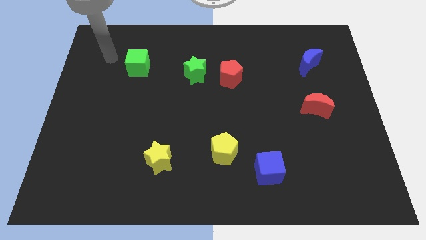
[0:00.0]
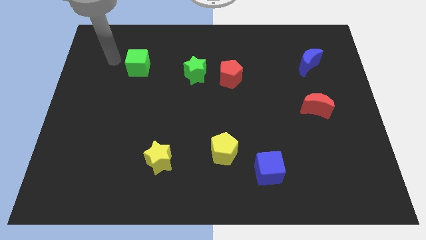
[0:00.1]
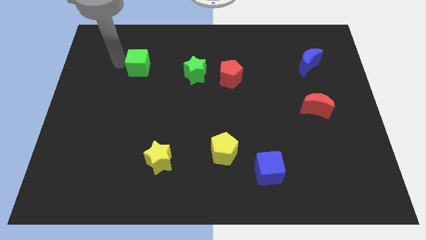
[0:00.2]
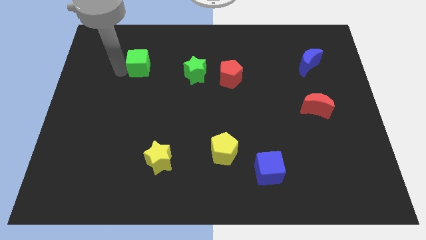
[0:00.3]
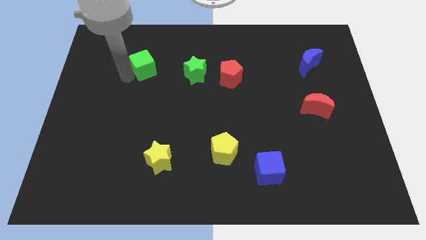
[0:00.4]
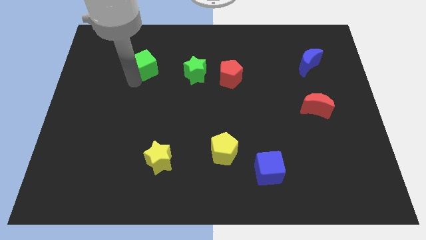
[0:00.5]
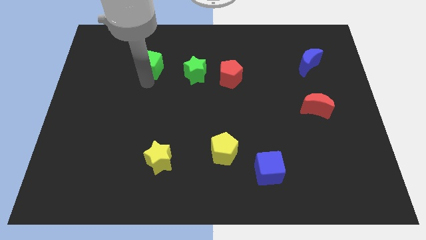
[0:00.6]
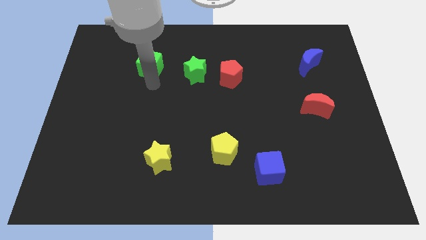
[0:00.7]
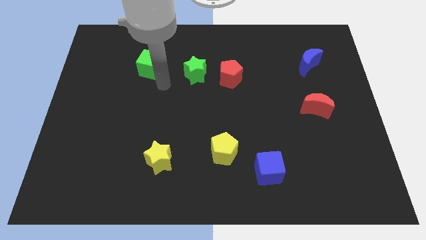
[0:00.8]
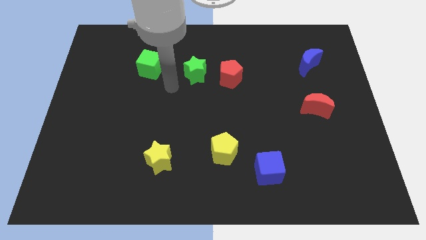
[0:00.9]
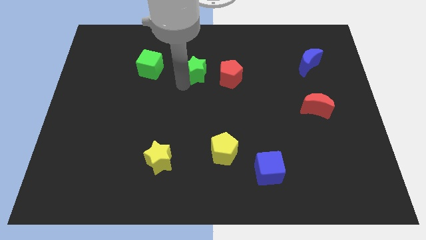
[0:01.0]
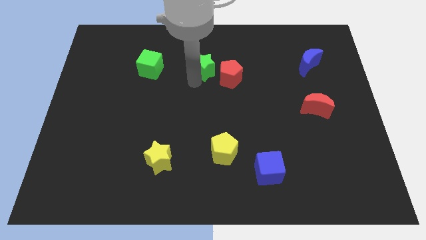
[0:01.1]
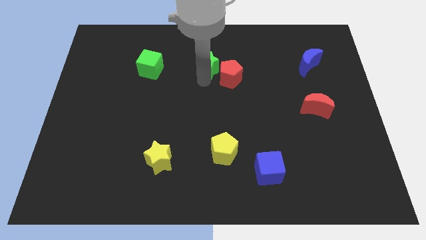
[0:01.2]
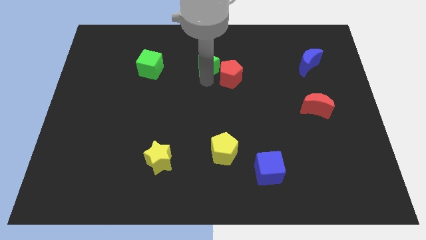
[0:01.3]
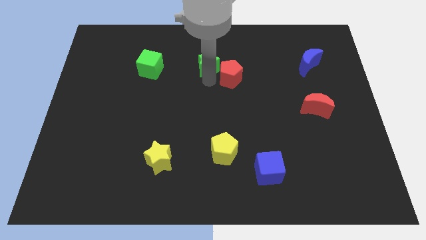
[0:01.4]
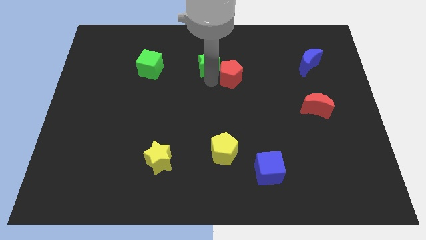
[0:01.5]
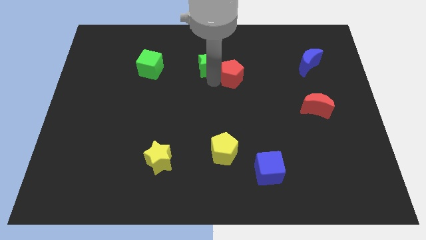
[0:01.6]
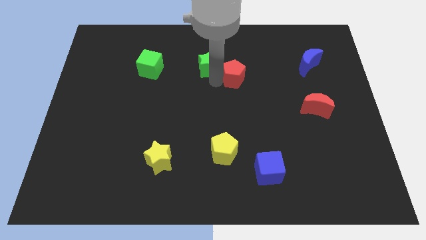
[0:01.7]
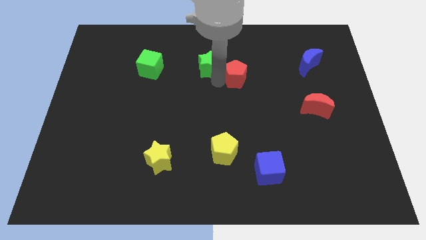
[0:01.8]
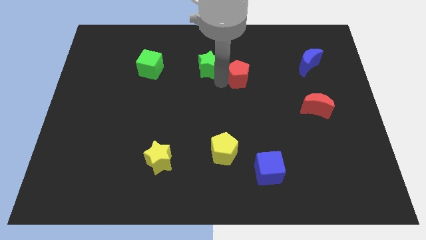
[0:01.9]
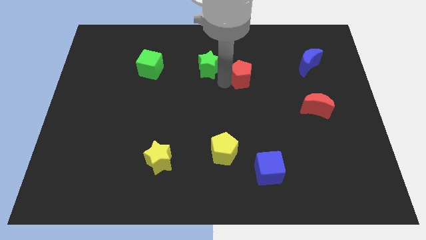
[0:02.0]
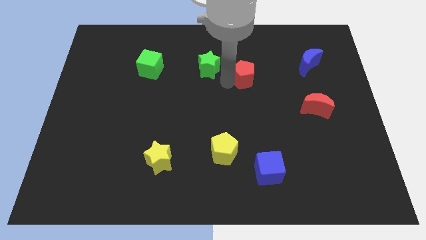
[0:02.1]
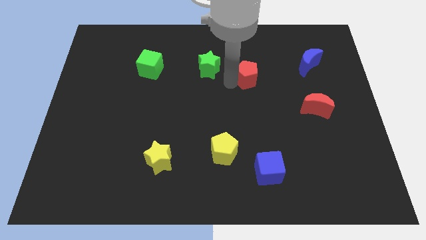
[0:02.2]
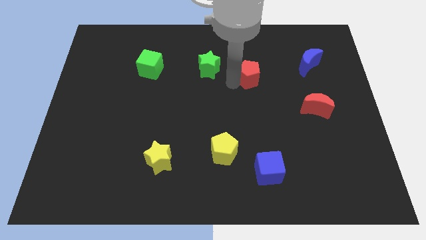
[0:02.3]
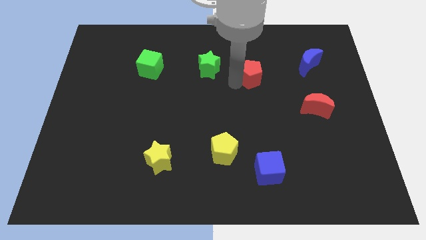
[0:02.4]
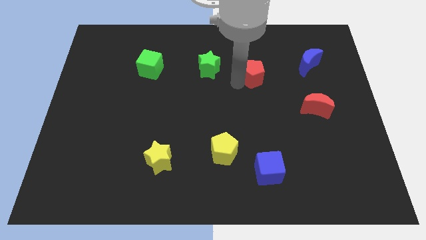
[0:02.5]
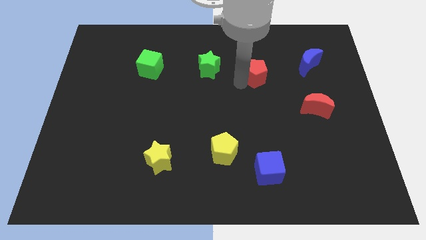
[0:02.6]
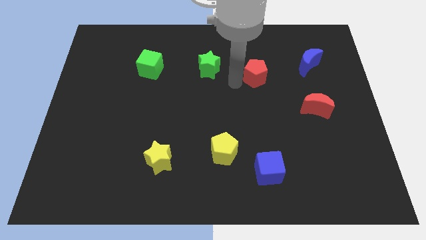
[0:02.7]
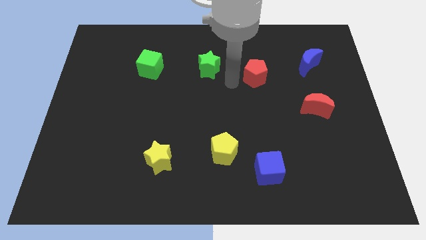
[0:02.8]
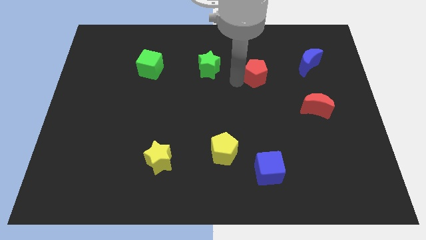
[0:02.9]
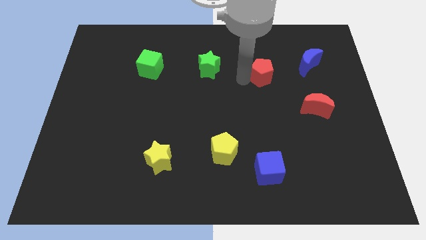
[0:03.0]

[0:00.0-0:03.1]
push the red pentagon to the right somewhat

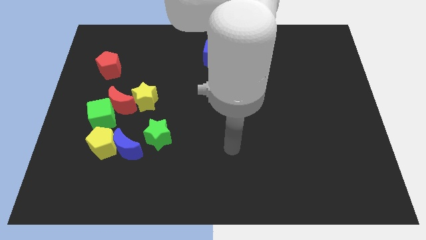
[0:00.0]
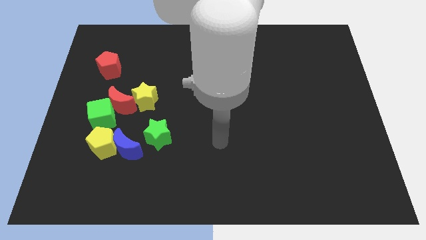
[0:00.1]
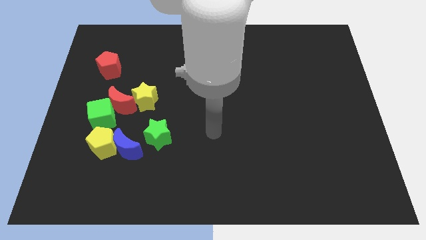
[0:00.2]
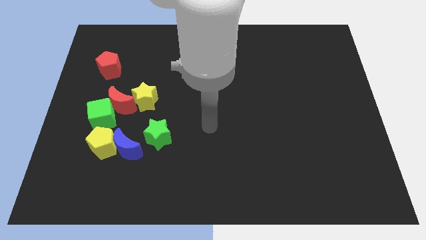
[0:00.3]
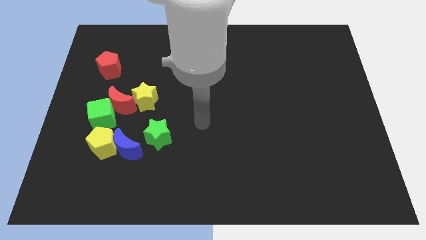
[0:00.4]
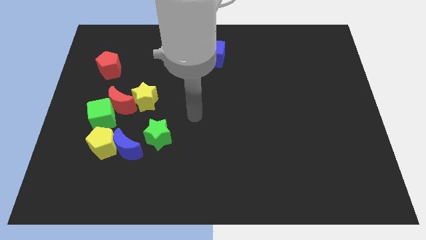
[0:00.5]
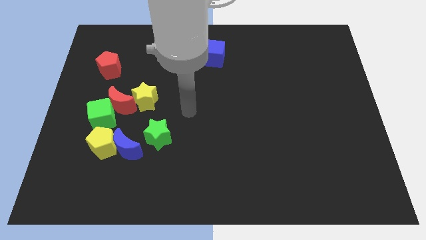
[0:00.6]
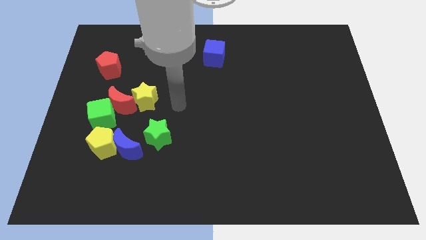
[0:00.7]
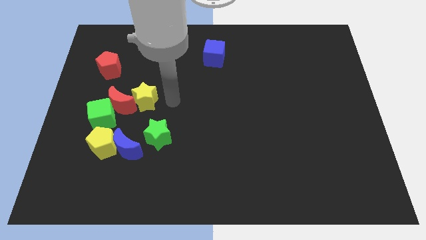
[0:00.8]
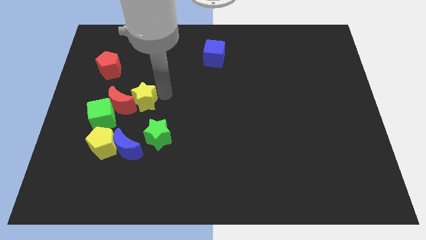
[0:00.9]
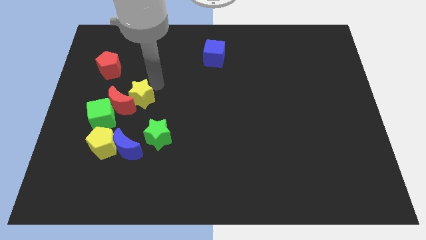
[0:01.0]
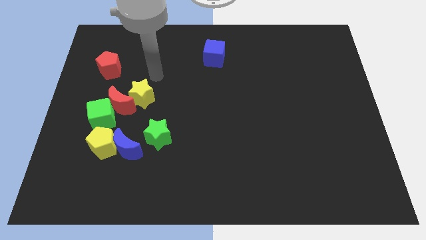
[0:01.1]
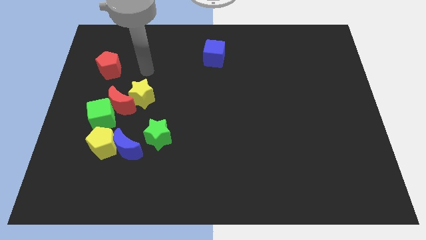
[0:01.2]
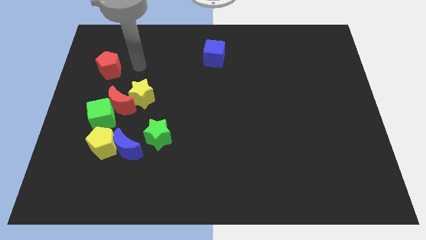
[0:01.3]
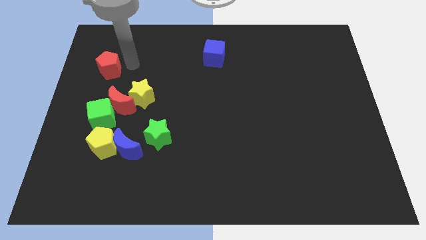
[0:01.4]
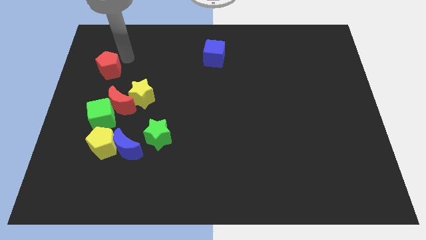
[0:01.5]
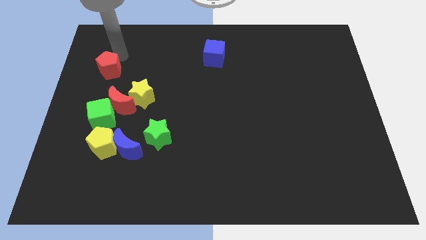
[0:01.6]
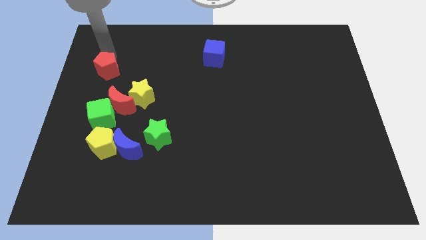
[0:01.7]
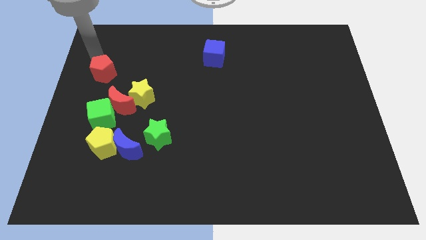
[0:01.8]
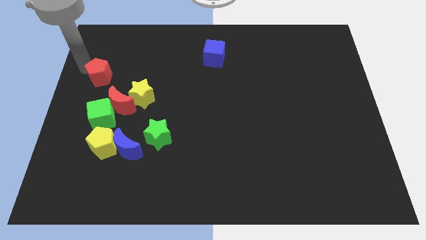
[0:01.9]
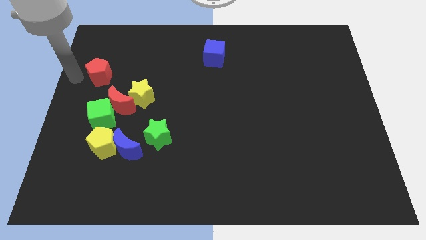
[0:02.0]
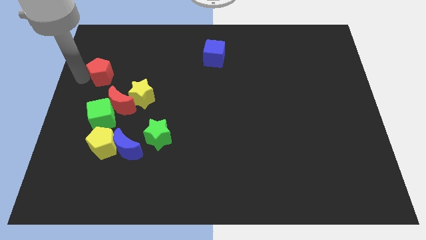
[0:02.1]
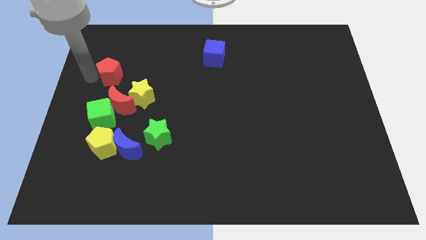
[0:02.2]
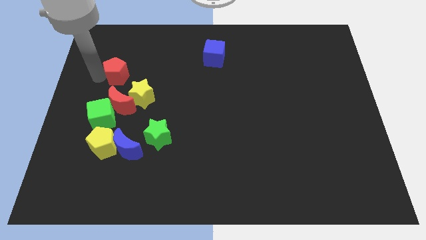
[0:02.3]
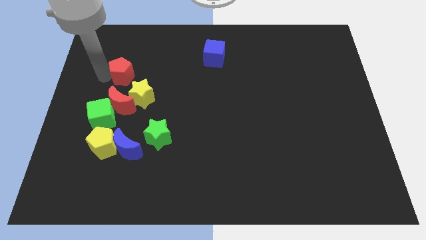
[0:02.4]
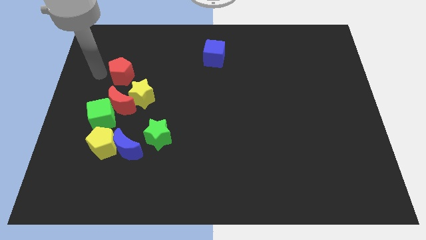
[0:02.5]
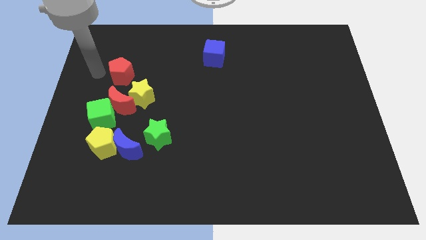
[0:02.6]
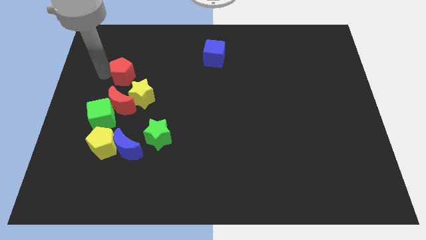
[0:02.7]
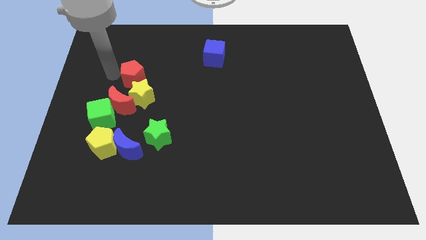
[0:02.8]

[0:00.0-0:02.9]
slightly slide the red pentagon down and right diagonally

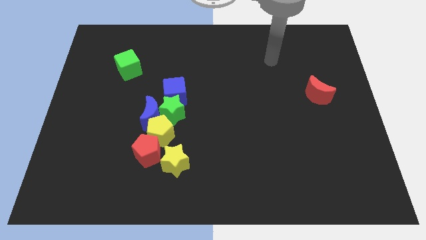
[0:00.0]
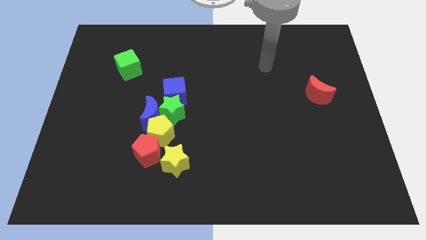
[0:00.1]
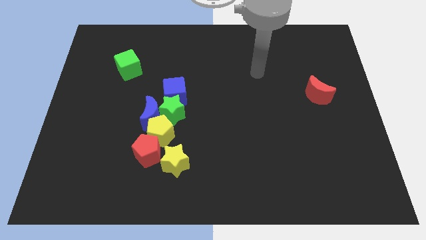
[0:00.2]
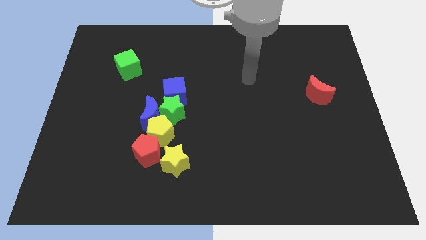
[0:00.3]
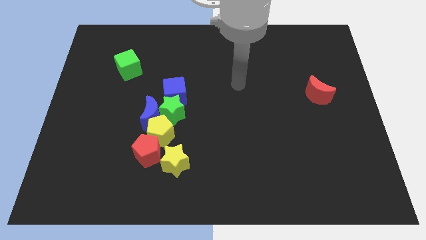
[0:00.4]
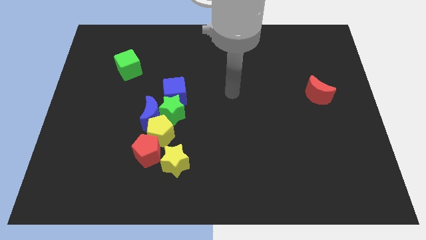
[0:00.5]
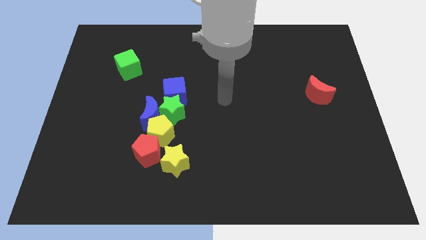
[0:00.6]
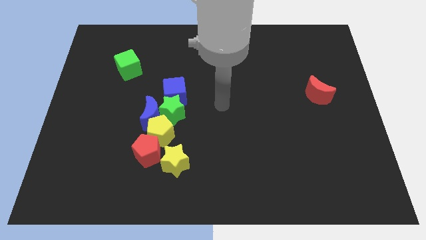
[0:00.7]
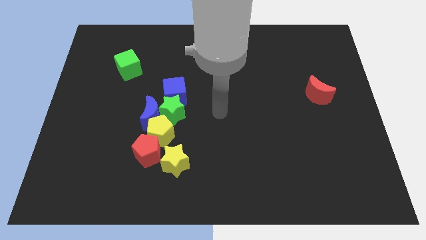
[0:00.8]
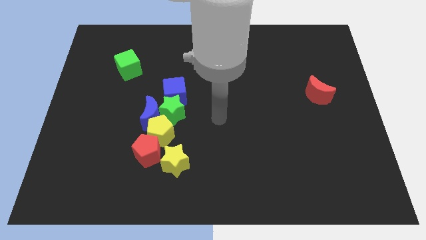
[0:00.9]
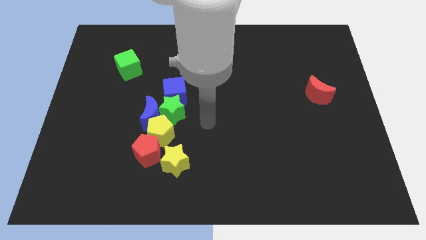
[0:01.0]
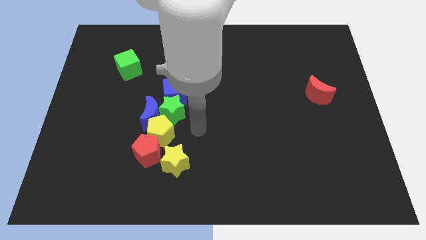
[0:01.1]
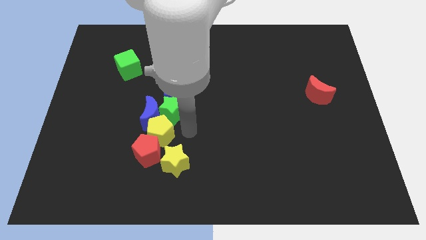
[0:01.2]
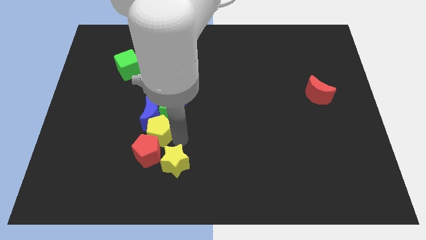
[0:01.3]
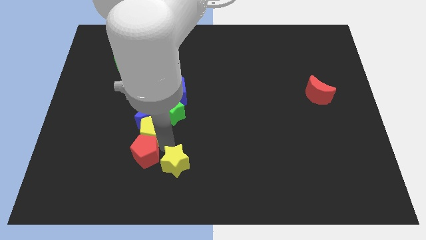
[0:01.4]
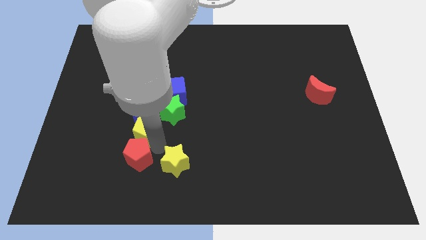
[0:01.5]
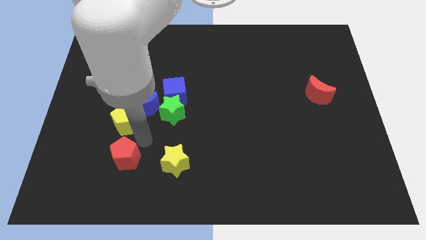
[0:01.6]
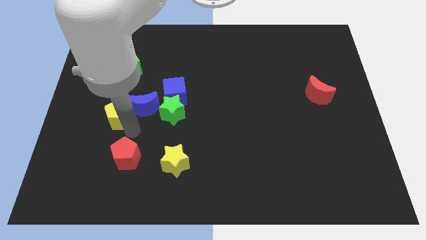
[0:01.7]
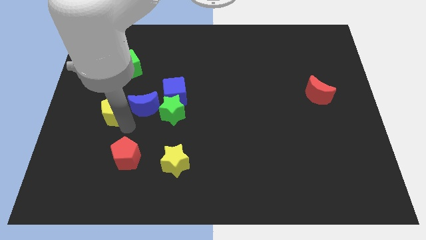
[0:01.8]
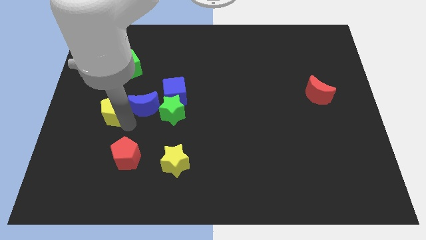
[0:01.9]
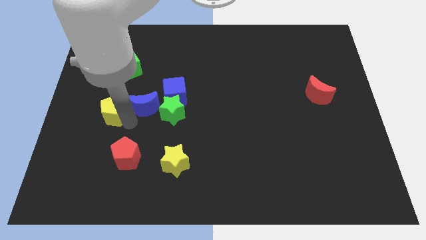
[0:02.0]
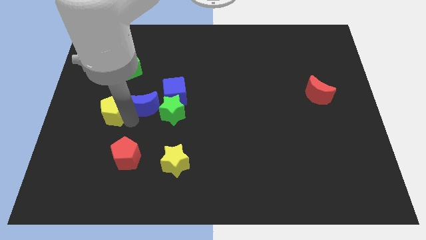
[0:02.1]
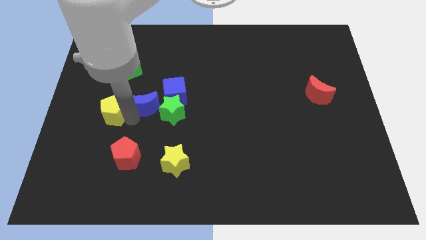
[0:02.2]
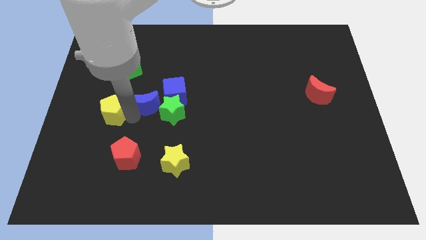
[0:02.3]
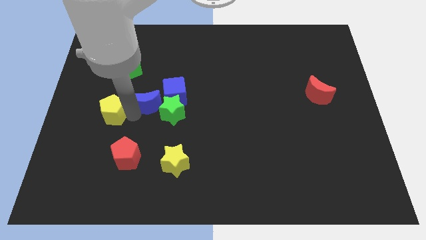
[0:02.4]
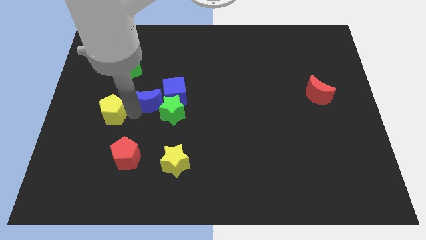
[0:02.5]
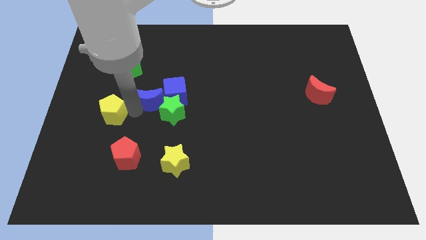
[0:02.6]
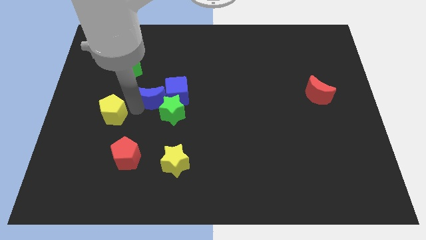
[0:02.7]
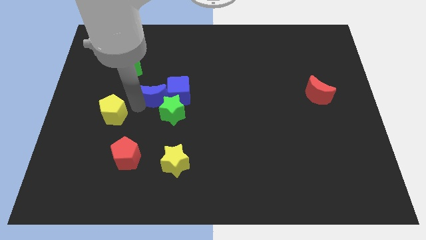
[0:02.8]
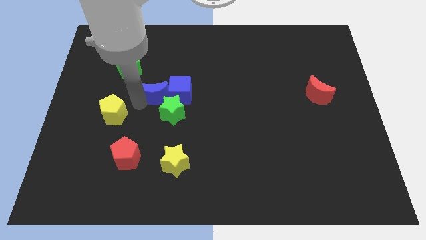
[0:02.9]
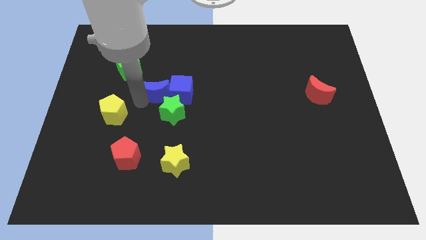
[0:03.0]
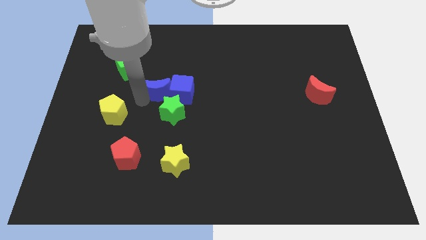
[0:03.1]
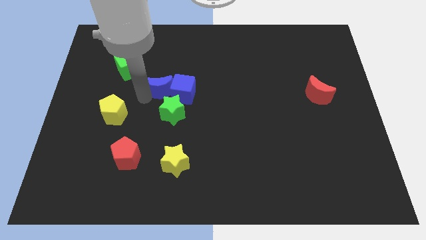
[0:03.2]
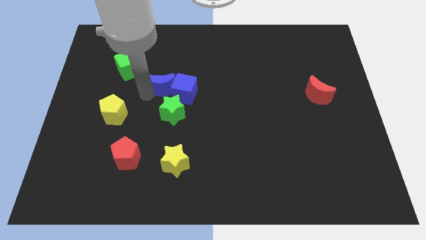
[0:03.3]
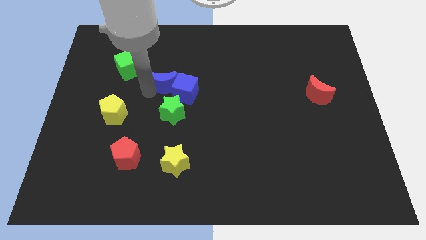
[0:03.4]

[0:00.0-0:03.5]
slightly slide the blue moon diagonally up and to the right
